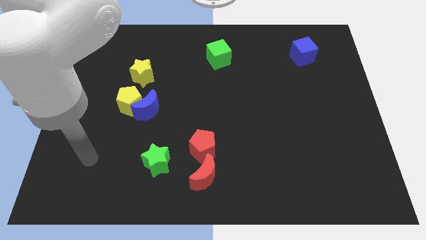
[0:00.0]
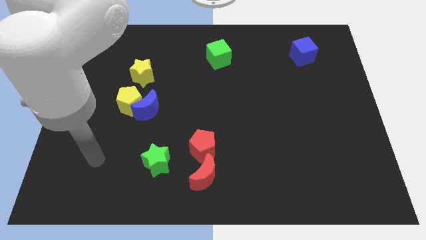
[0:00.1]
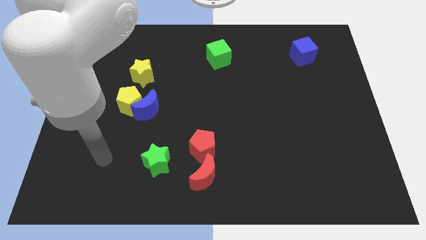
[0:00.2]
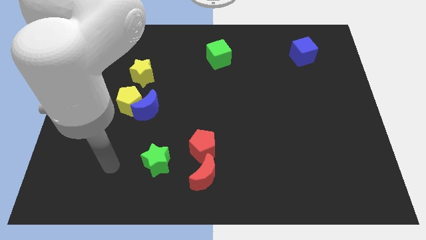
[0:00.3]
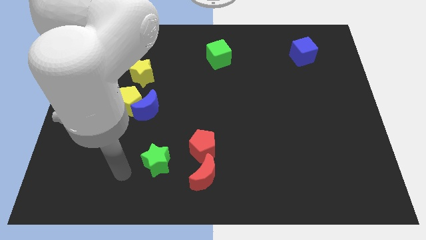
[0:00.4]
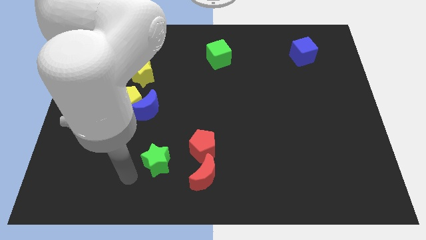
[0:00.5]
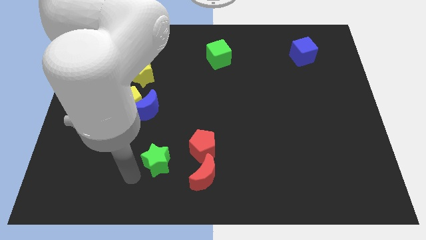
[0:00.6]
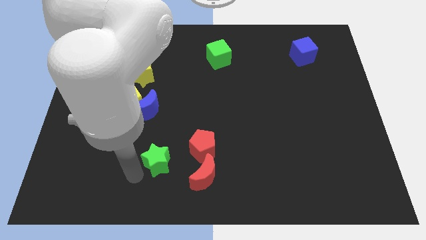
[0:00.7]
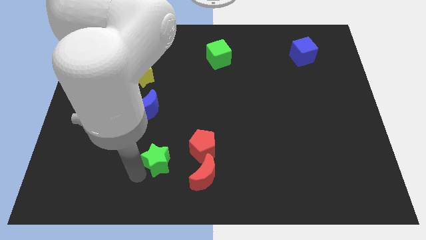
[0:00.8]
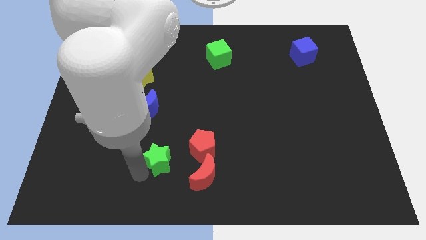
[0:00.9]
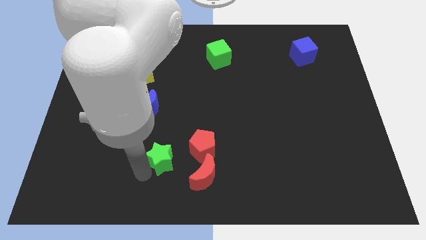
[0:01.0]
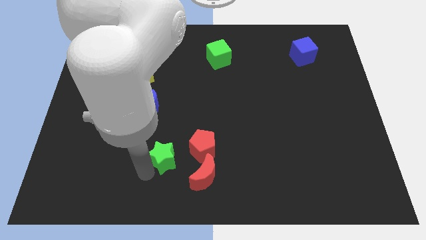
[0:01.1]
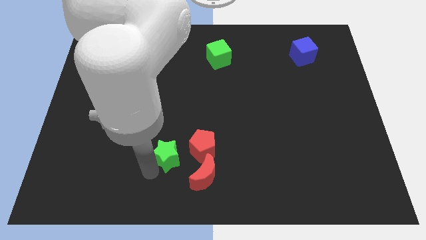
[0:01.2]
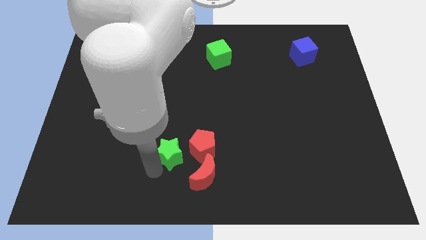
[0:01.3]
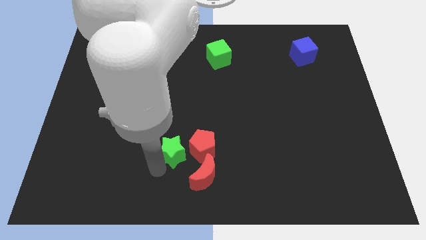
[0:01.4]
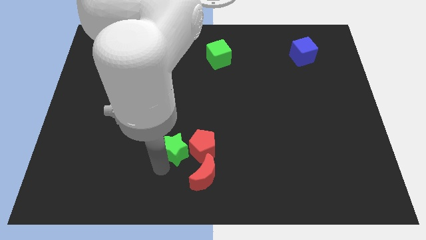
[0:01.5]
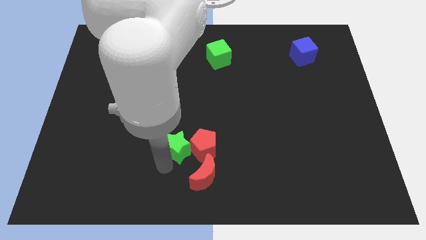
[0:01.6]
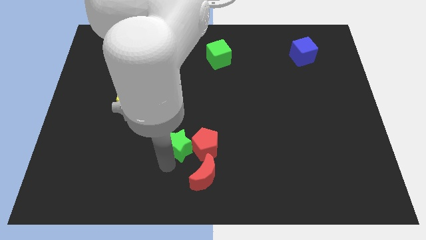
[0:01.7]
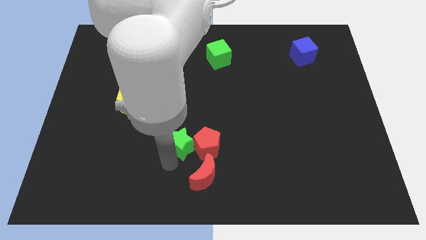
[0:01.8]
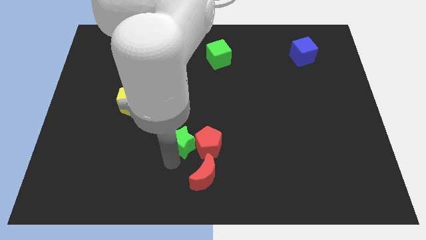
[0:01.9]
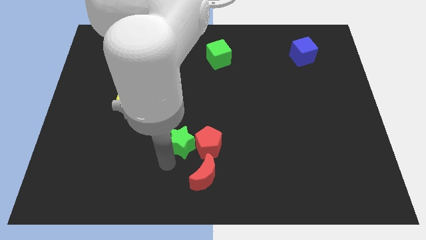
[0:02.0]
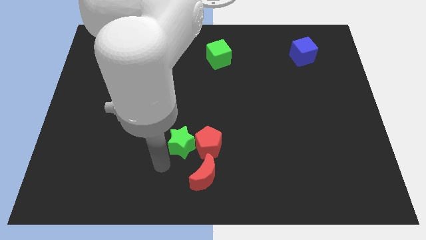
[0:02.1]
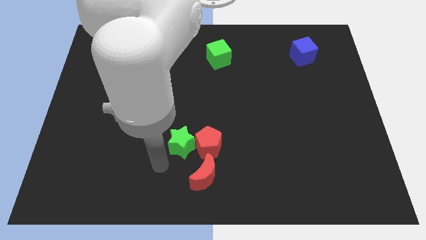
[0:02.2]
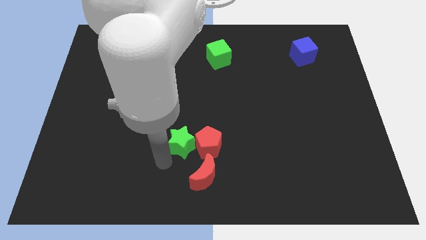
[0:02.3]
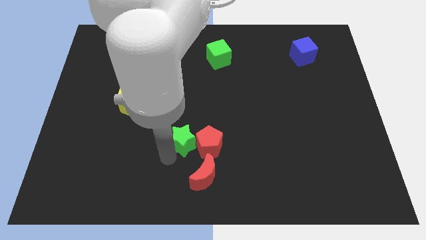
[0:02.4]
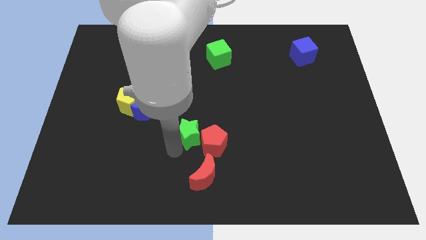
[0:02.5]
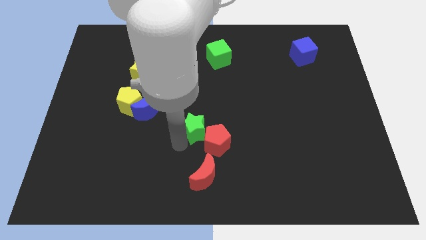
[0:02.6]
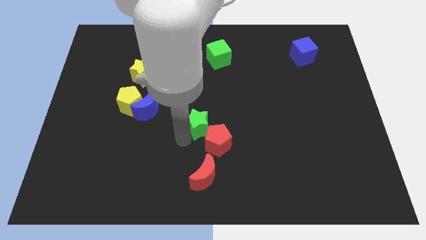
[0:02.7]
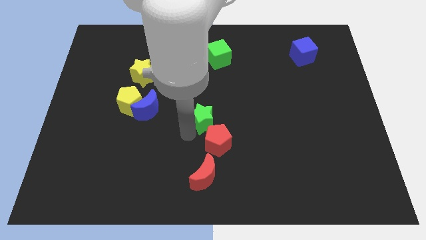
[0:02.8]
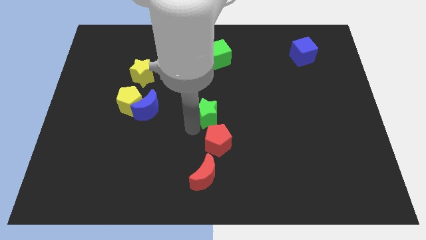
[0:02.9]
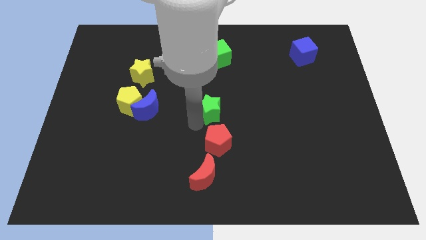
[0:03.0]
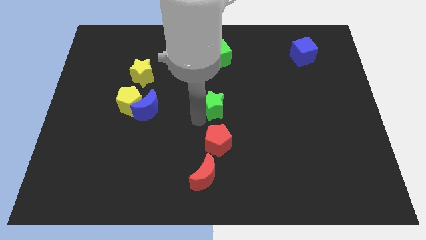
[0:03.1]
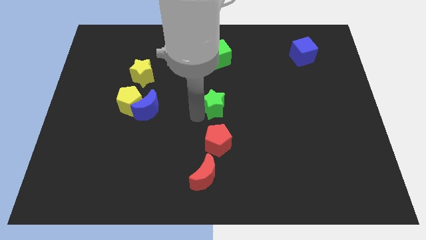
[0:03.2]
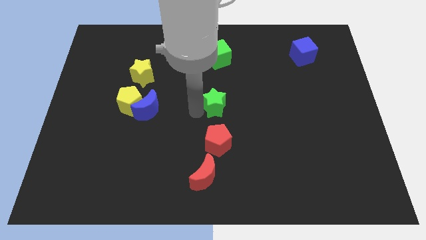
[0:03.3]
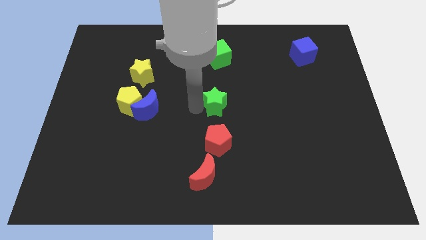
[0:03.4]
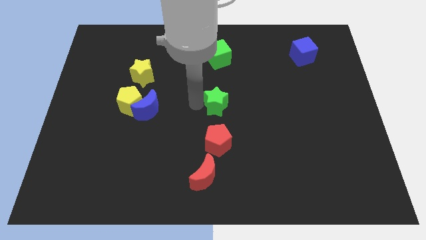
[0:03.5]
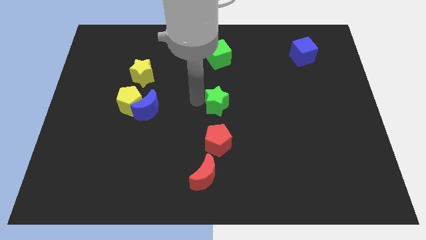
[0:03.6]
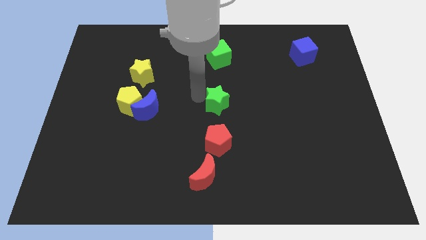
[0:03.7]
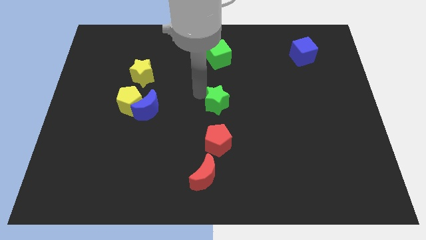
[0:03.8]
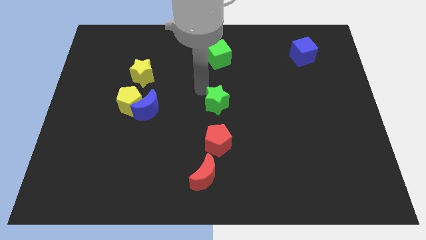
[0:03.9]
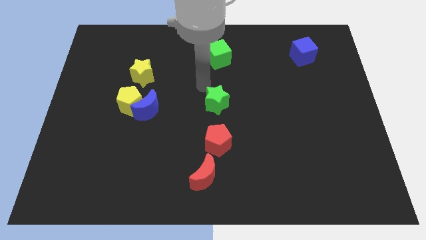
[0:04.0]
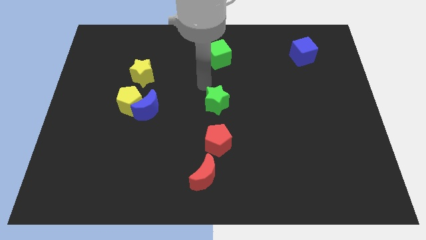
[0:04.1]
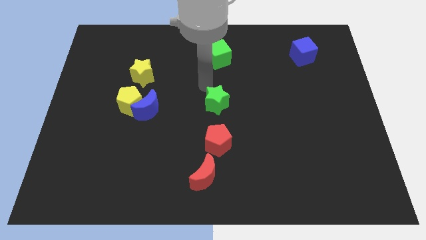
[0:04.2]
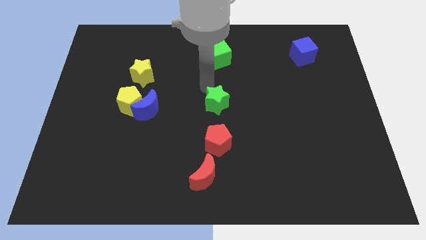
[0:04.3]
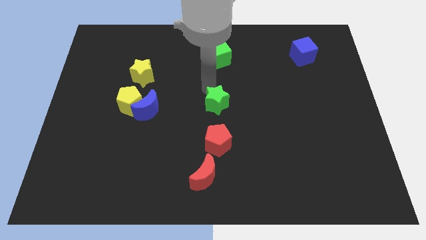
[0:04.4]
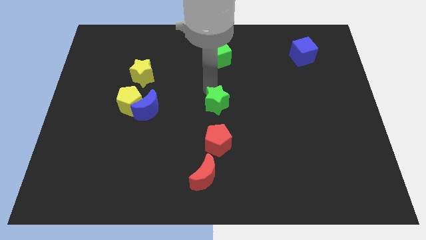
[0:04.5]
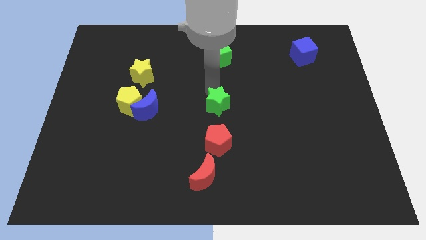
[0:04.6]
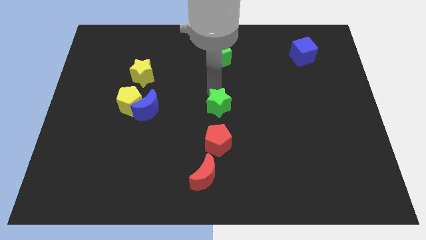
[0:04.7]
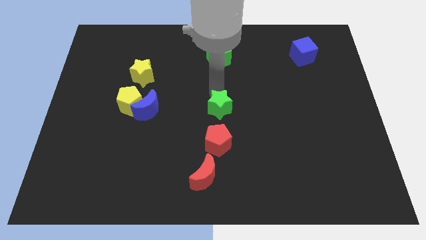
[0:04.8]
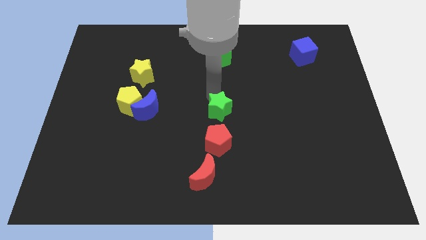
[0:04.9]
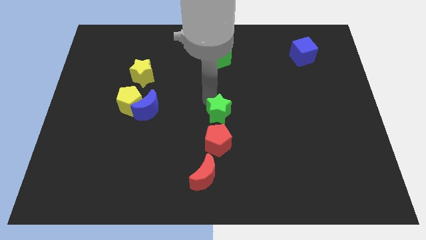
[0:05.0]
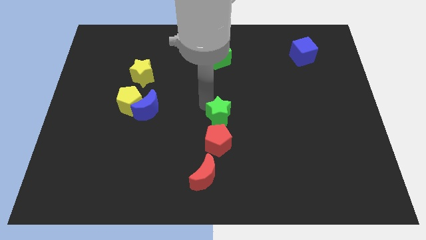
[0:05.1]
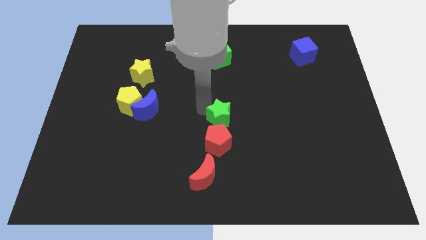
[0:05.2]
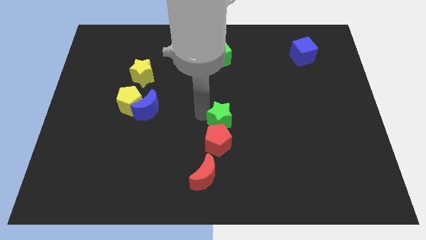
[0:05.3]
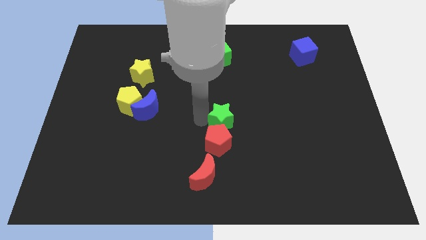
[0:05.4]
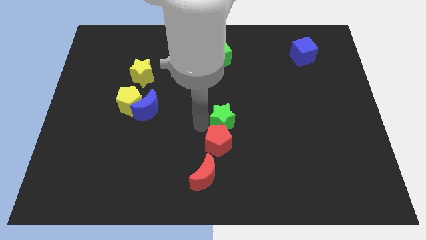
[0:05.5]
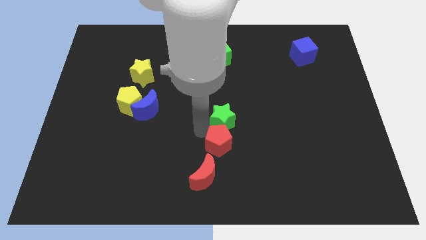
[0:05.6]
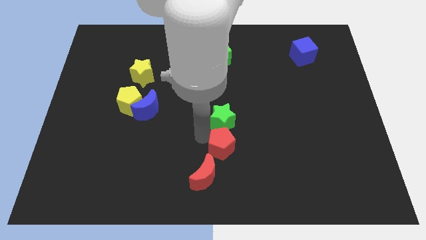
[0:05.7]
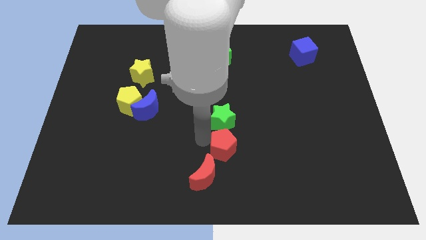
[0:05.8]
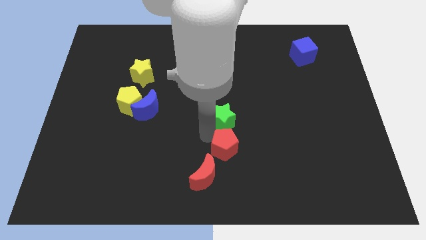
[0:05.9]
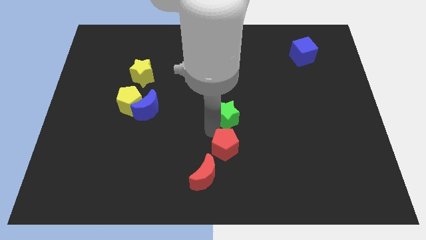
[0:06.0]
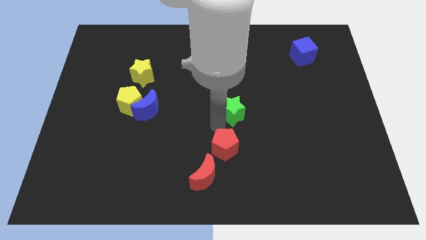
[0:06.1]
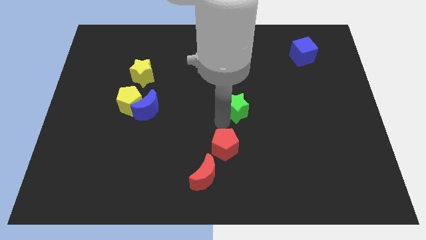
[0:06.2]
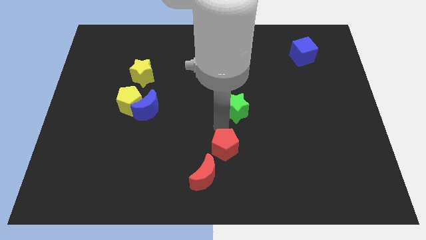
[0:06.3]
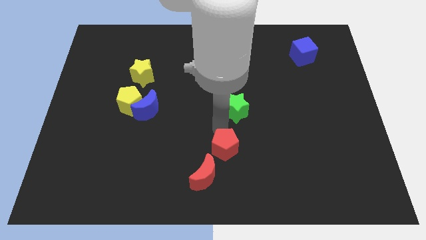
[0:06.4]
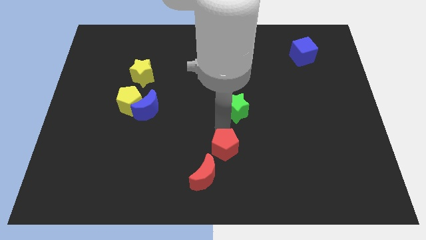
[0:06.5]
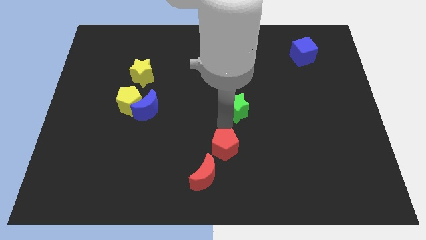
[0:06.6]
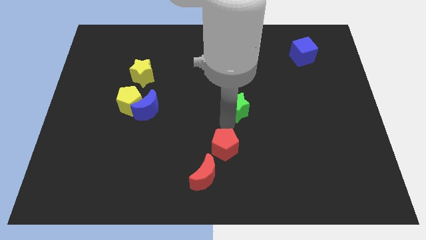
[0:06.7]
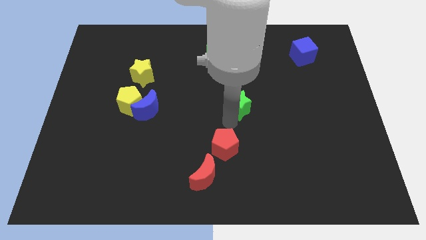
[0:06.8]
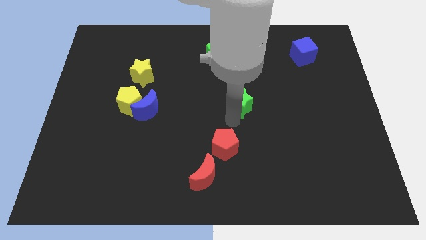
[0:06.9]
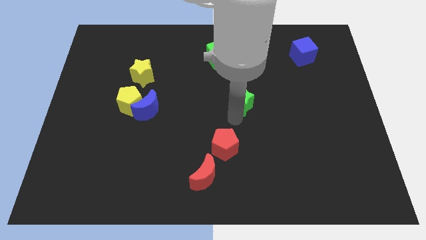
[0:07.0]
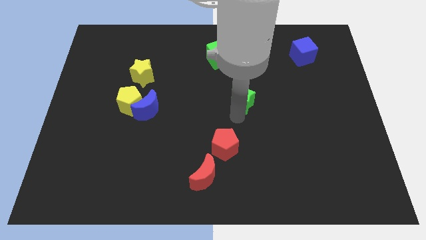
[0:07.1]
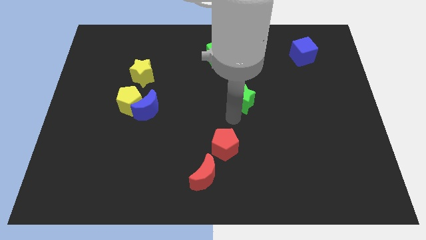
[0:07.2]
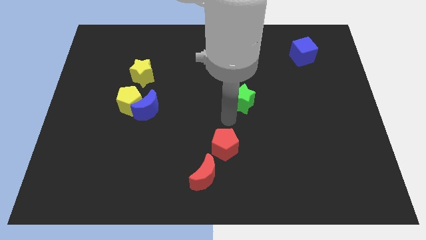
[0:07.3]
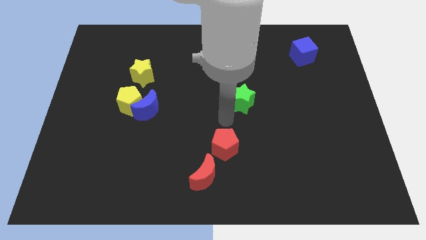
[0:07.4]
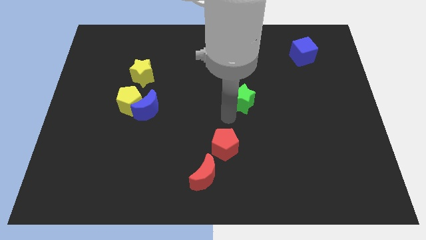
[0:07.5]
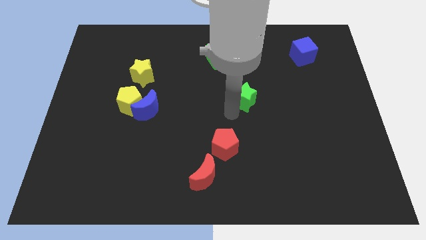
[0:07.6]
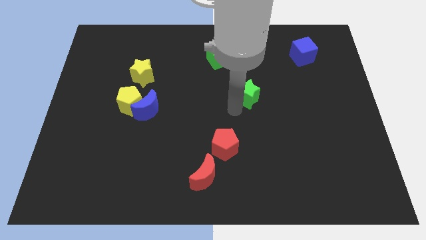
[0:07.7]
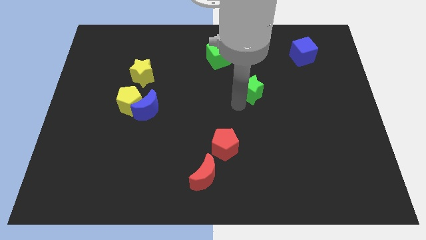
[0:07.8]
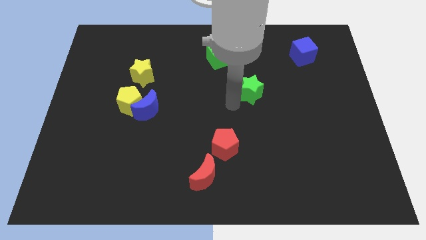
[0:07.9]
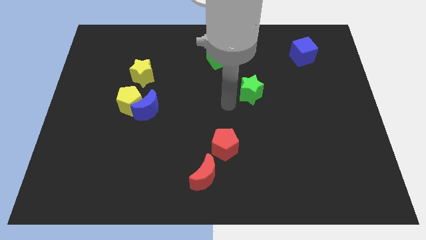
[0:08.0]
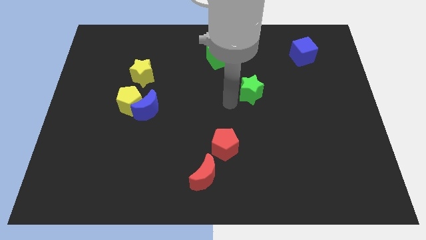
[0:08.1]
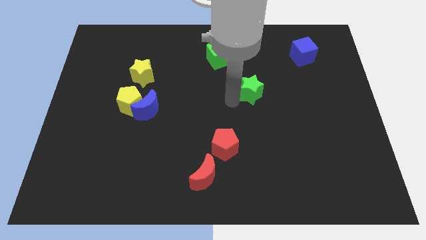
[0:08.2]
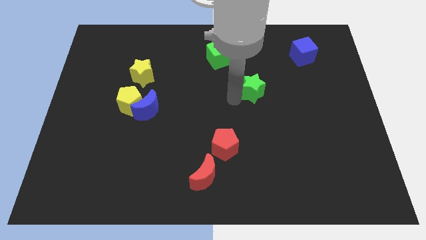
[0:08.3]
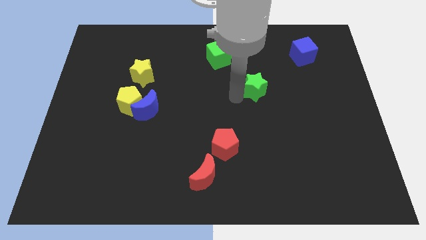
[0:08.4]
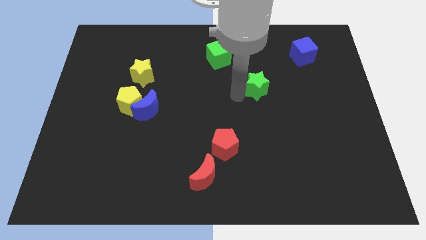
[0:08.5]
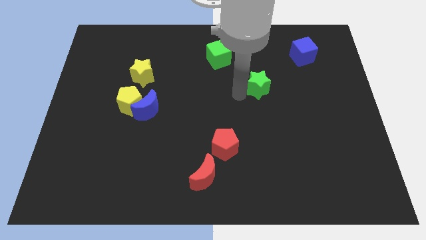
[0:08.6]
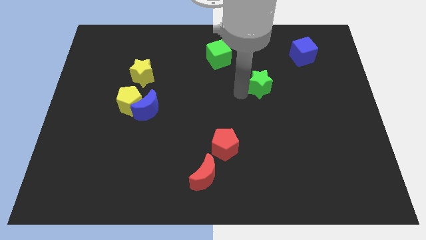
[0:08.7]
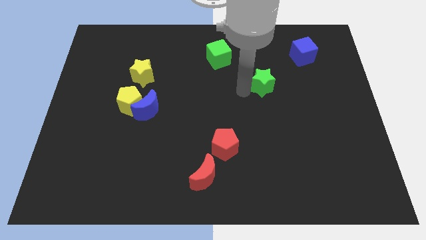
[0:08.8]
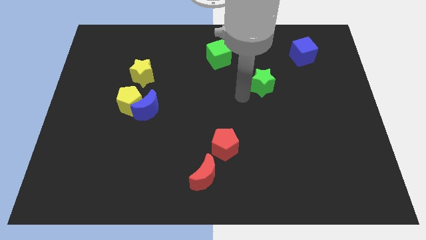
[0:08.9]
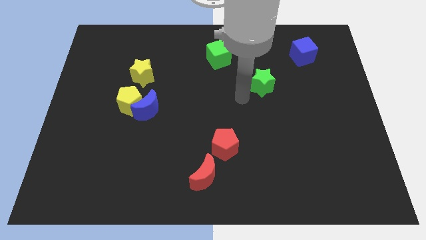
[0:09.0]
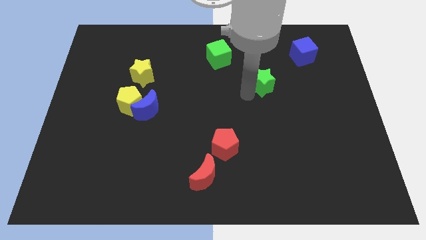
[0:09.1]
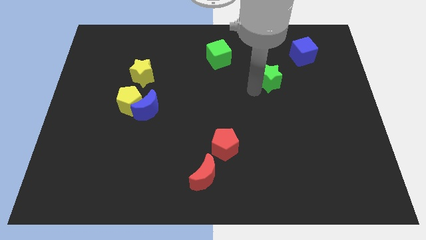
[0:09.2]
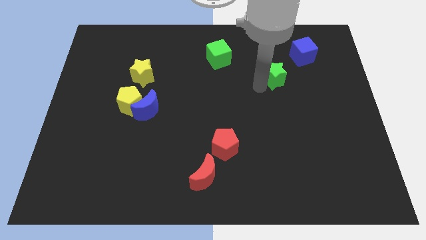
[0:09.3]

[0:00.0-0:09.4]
push the green star diagonally down and to the left of the blue cube
